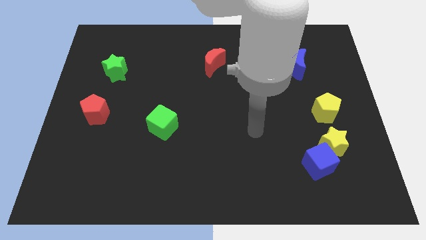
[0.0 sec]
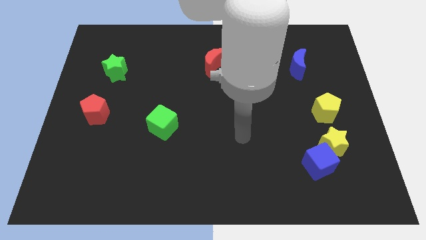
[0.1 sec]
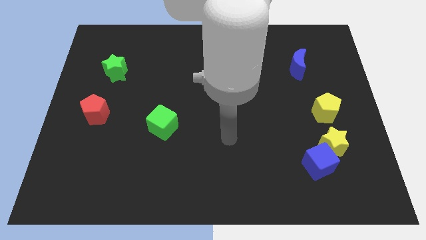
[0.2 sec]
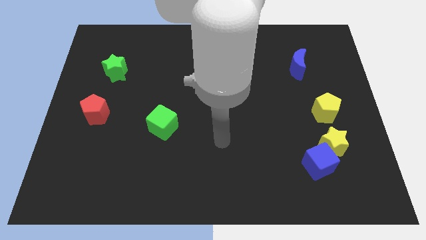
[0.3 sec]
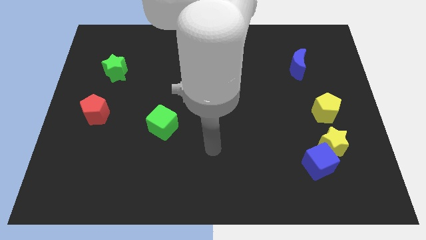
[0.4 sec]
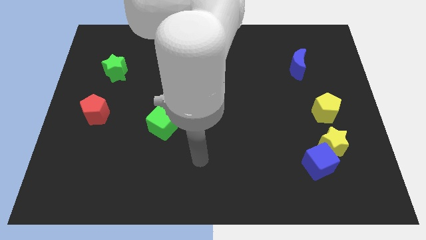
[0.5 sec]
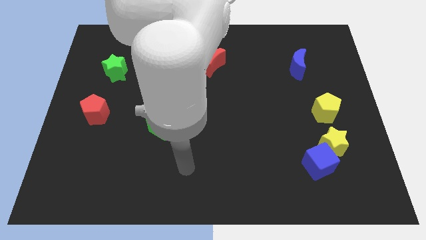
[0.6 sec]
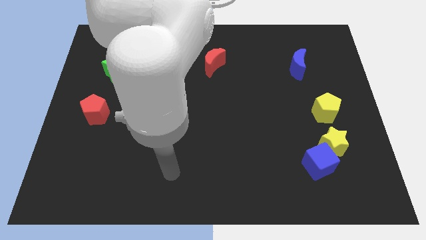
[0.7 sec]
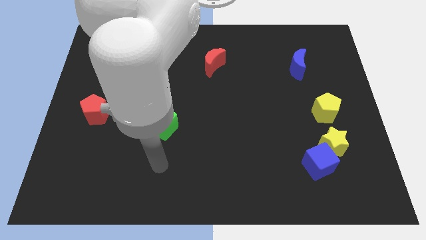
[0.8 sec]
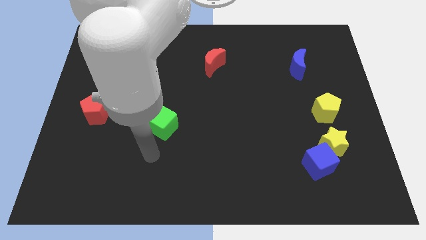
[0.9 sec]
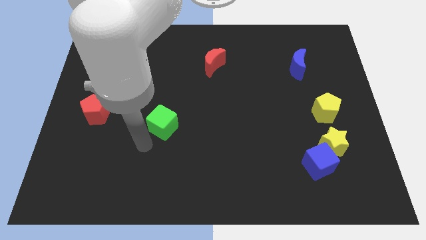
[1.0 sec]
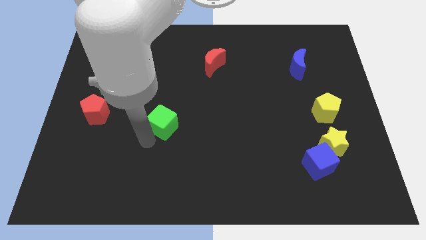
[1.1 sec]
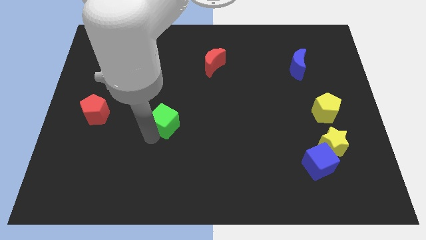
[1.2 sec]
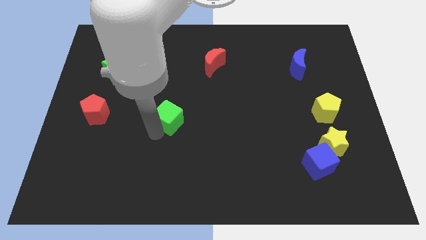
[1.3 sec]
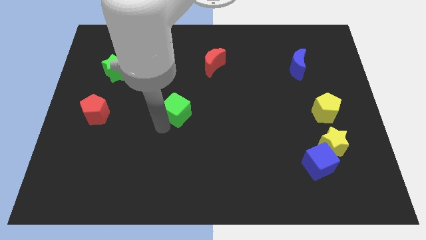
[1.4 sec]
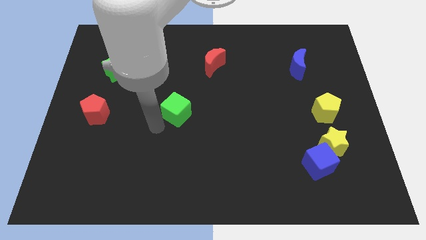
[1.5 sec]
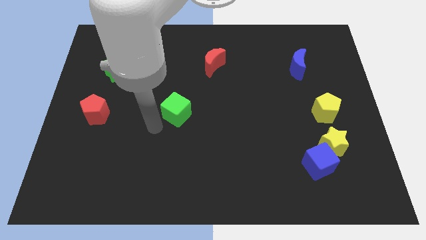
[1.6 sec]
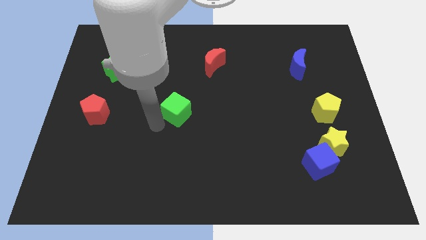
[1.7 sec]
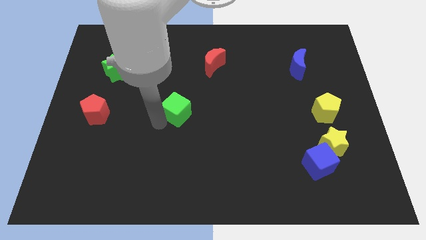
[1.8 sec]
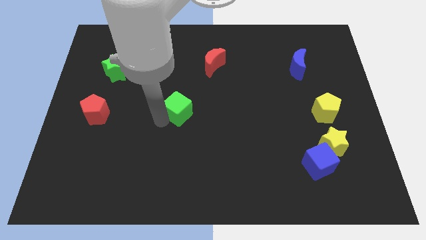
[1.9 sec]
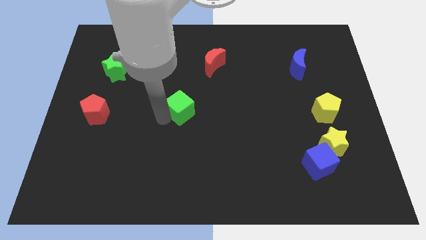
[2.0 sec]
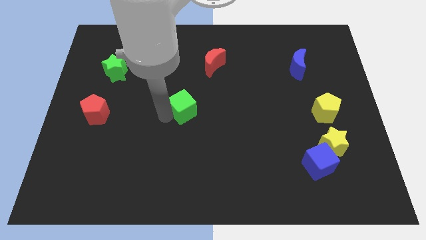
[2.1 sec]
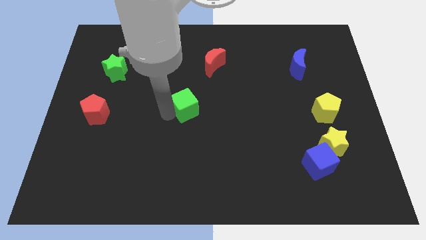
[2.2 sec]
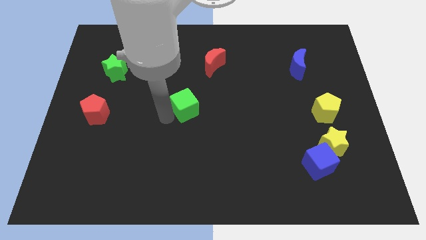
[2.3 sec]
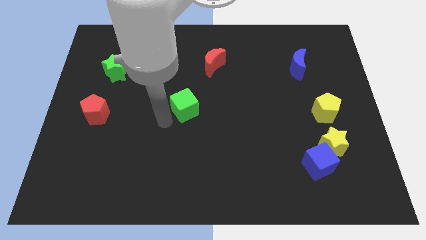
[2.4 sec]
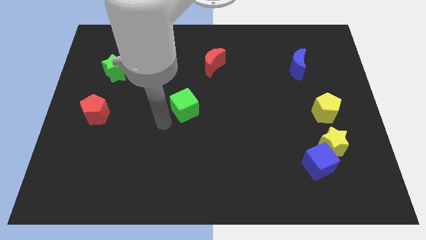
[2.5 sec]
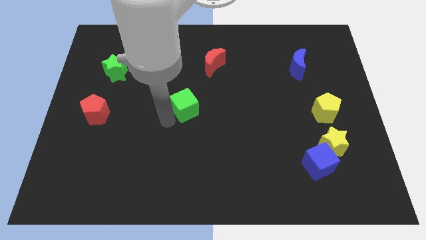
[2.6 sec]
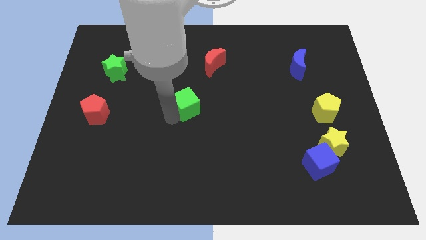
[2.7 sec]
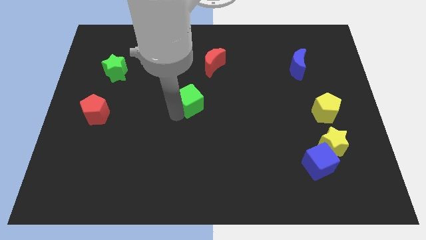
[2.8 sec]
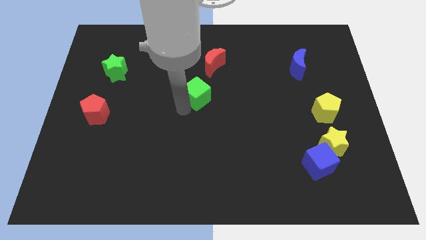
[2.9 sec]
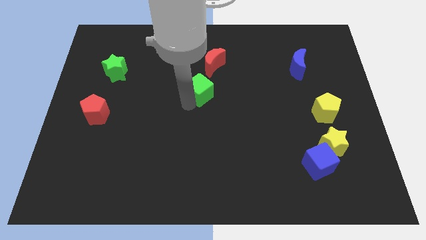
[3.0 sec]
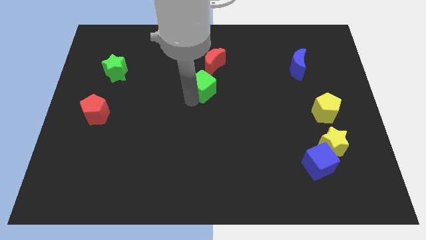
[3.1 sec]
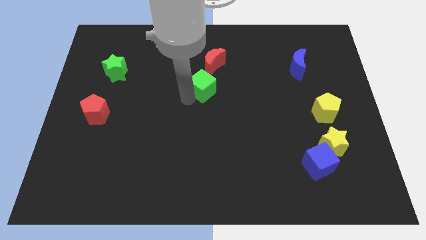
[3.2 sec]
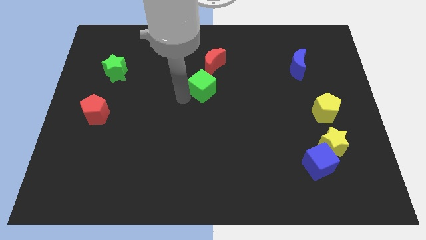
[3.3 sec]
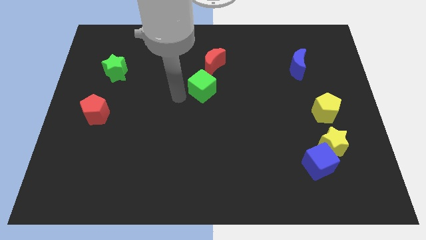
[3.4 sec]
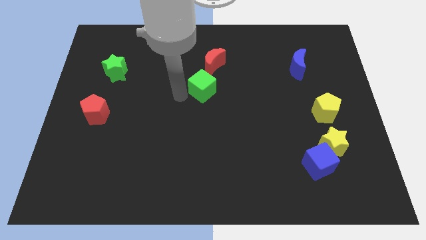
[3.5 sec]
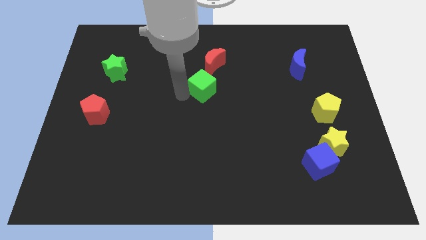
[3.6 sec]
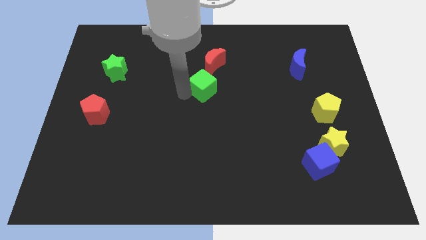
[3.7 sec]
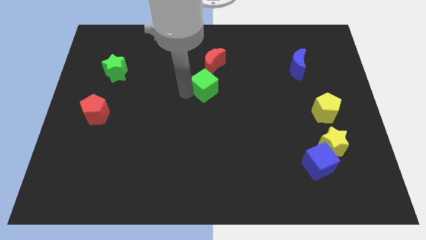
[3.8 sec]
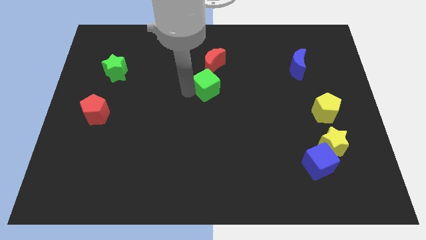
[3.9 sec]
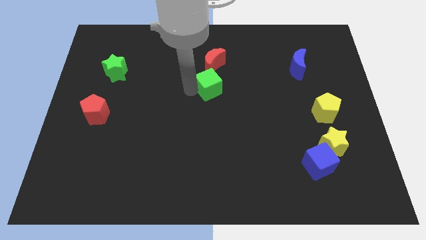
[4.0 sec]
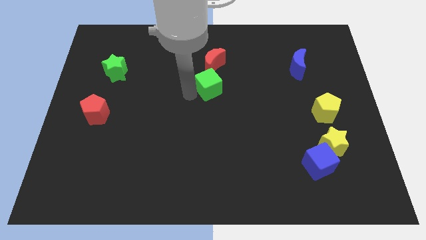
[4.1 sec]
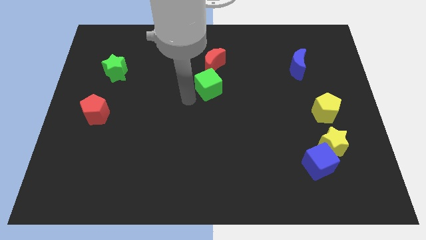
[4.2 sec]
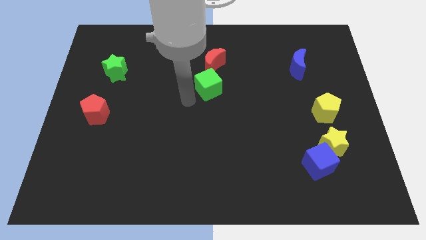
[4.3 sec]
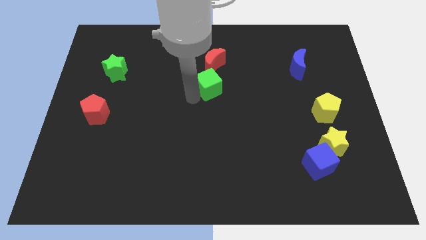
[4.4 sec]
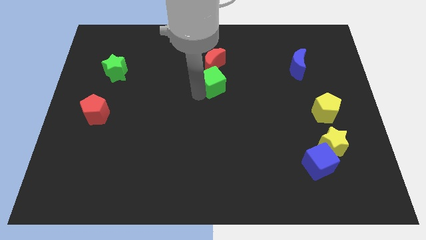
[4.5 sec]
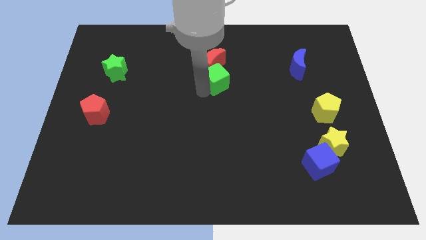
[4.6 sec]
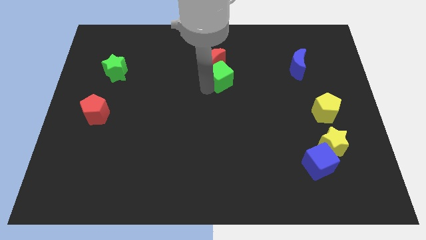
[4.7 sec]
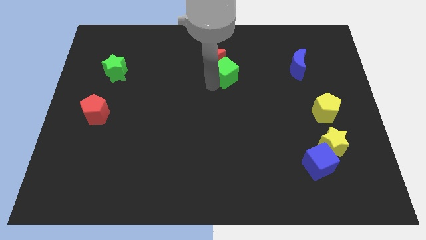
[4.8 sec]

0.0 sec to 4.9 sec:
slide the green cube upwards and to the right diagonally

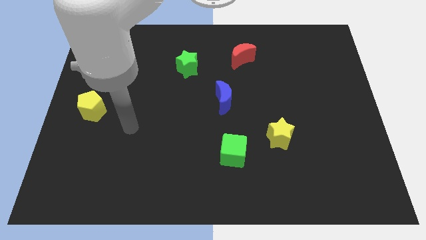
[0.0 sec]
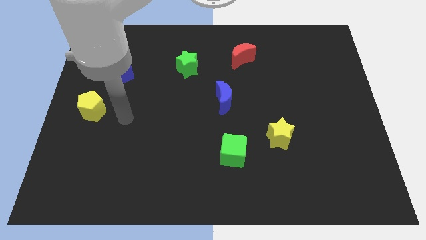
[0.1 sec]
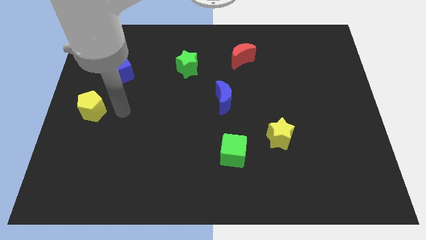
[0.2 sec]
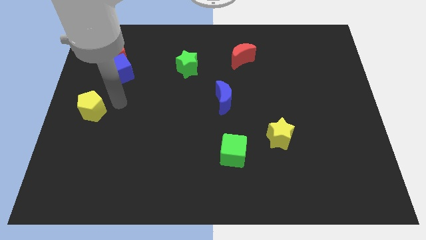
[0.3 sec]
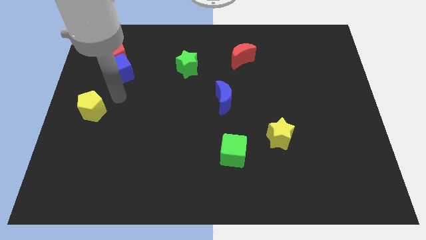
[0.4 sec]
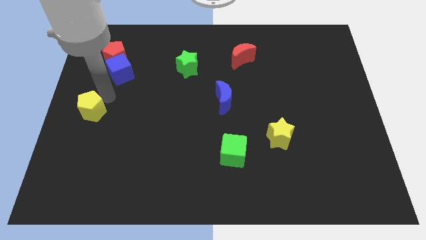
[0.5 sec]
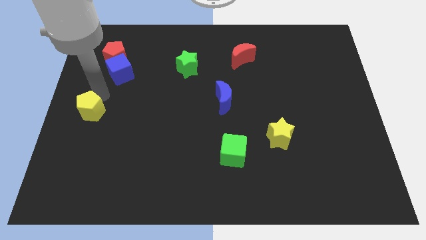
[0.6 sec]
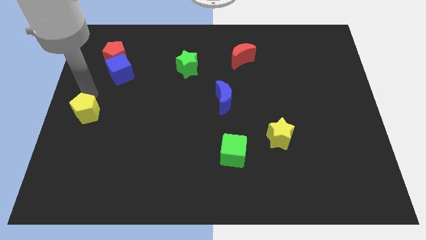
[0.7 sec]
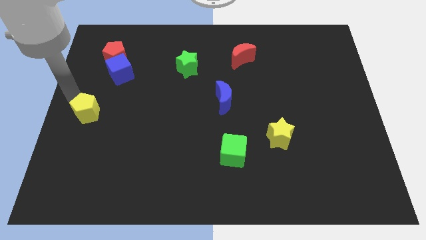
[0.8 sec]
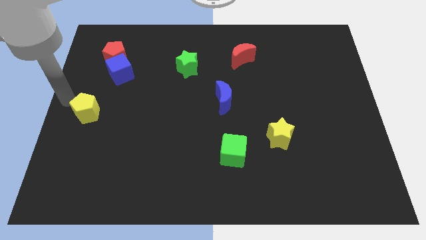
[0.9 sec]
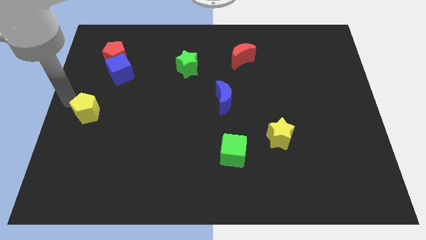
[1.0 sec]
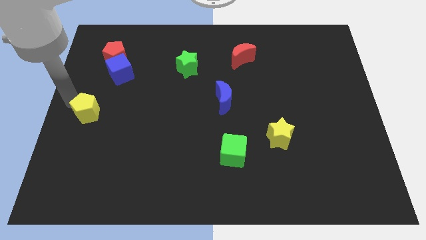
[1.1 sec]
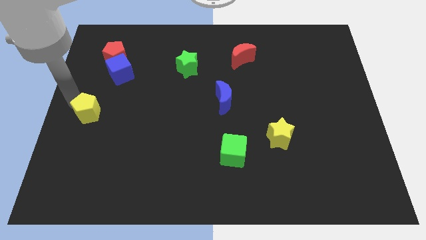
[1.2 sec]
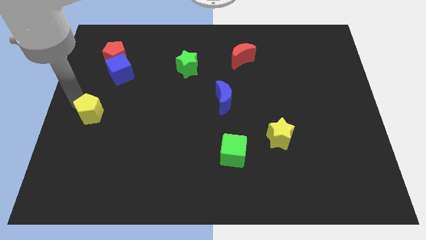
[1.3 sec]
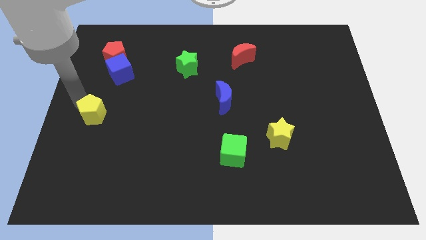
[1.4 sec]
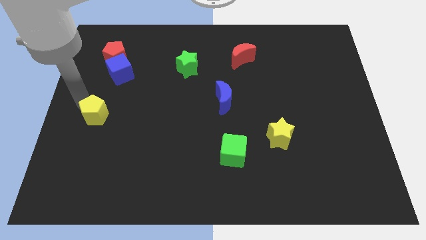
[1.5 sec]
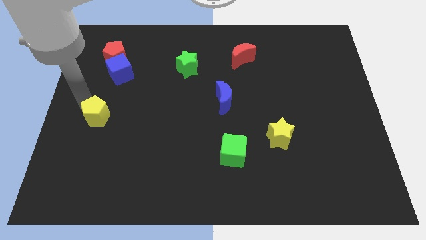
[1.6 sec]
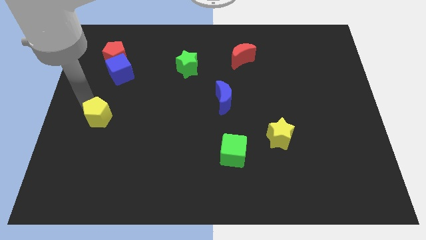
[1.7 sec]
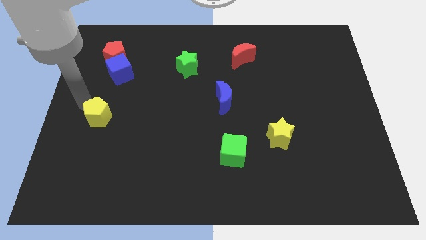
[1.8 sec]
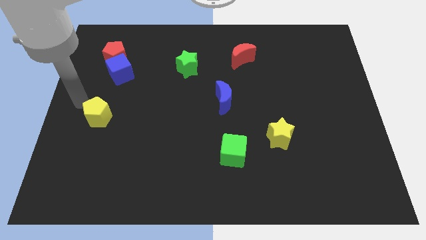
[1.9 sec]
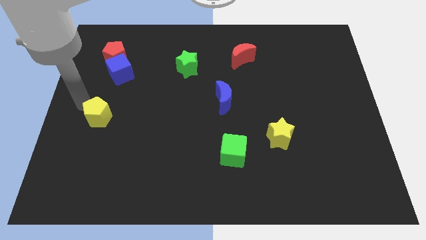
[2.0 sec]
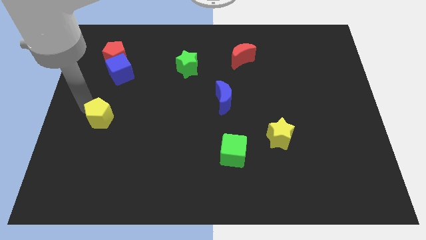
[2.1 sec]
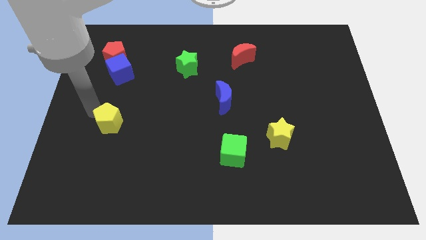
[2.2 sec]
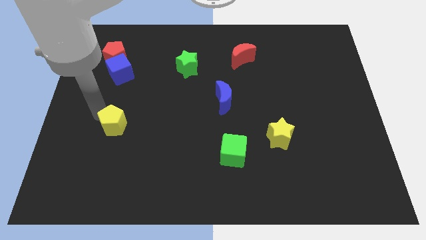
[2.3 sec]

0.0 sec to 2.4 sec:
slide the yellow pentagon somewhat downwards and right

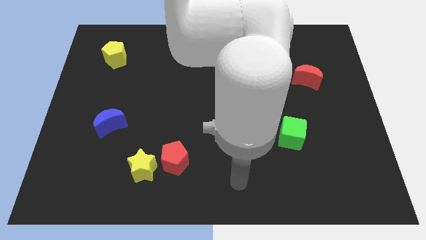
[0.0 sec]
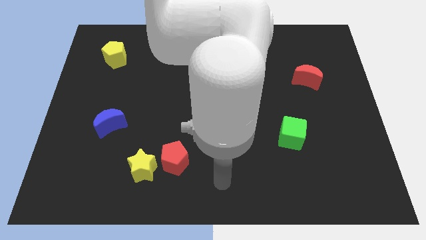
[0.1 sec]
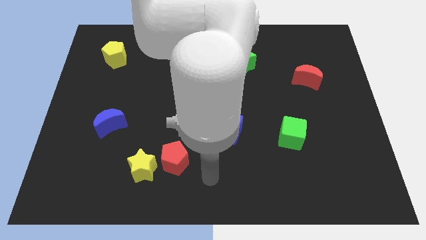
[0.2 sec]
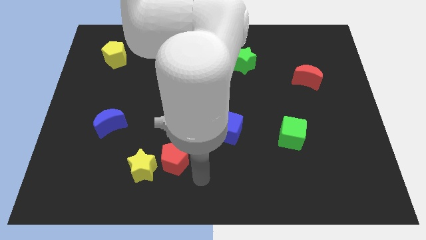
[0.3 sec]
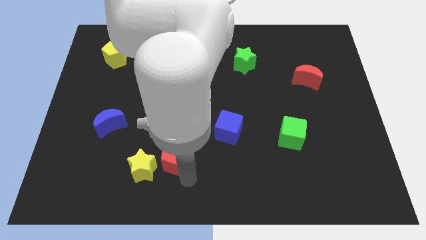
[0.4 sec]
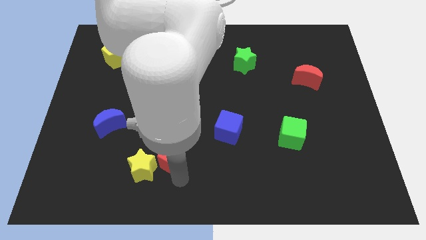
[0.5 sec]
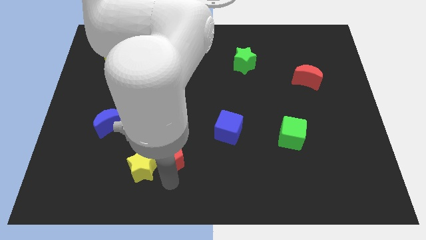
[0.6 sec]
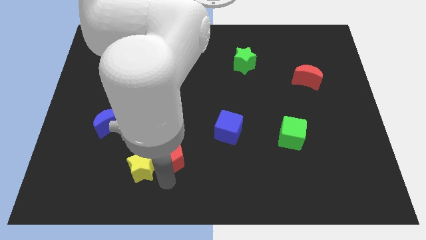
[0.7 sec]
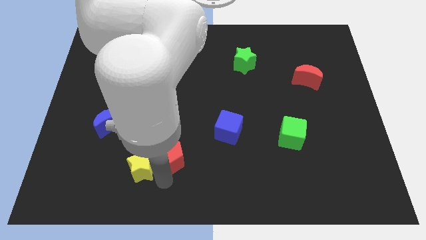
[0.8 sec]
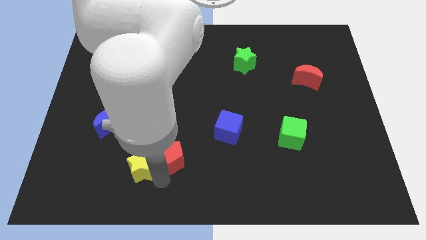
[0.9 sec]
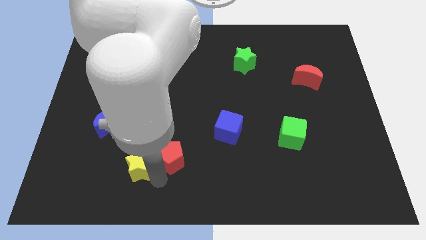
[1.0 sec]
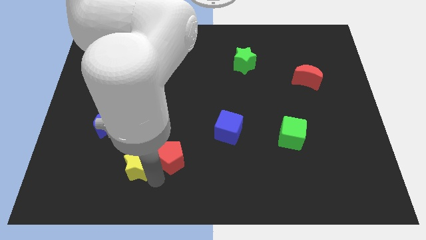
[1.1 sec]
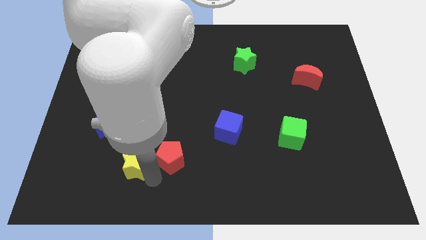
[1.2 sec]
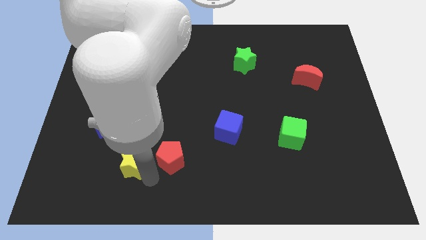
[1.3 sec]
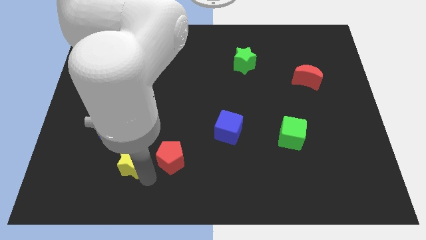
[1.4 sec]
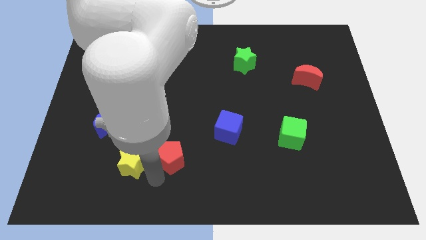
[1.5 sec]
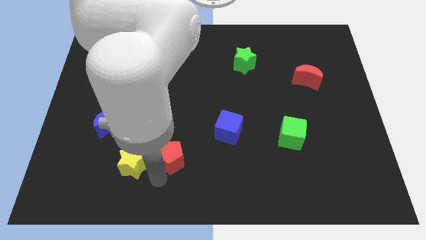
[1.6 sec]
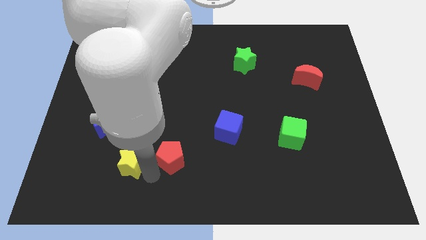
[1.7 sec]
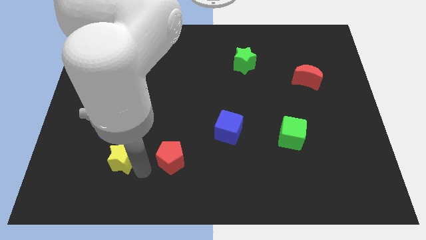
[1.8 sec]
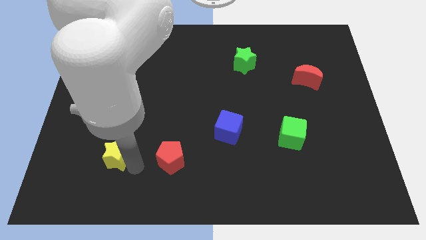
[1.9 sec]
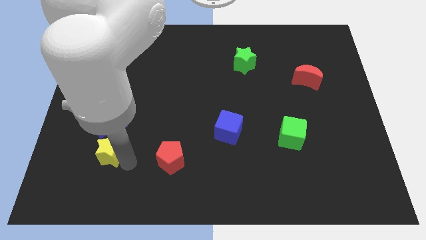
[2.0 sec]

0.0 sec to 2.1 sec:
move the yellow star upwards and left diagonally somewhat
